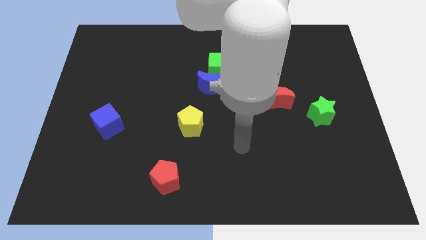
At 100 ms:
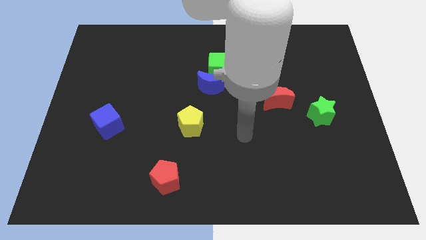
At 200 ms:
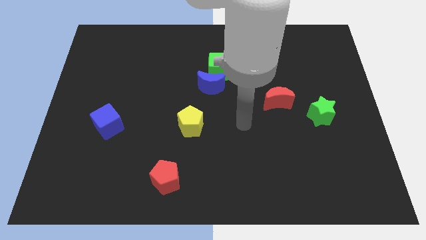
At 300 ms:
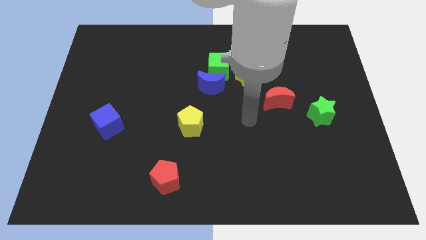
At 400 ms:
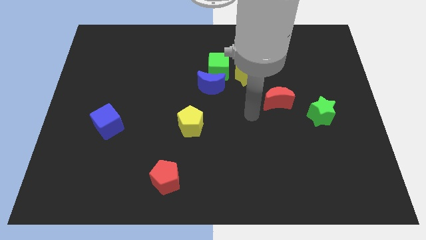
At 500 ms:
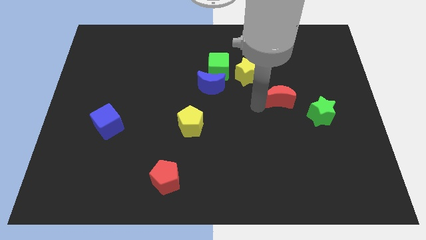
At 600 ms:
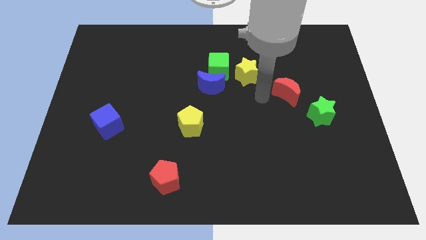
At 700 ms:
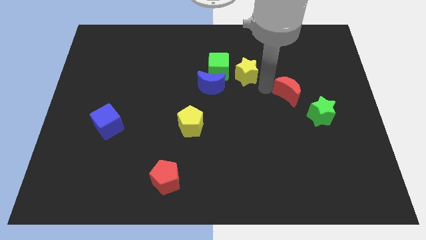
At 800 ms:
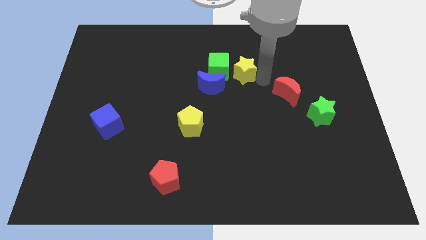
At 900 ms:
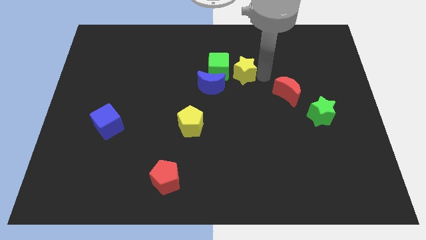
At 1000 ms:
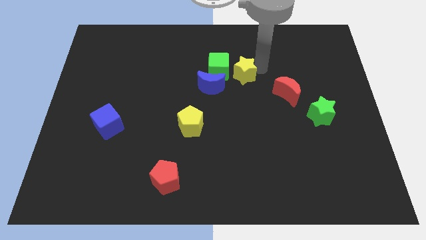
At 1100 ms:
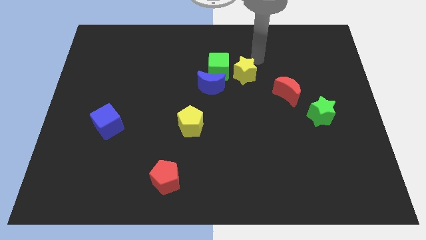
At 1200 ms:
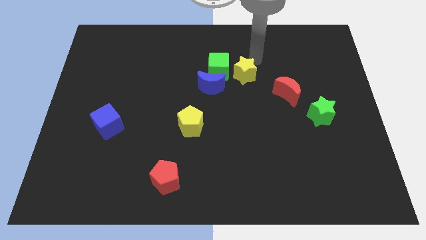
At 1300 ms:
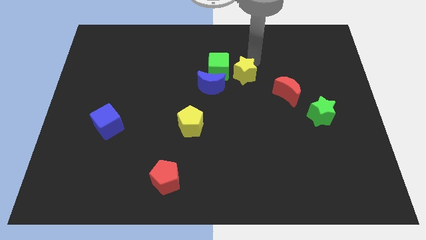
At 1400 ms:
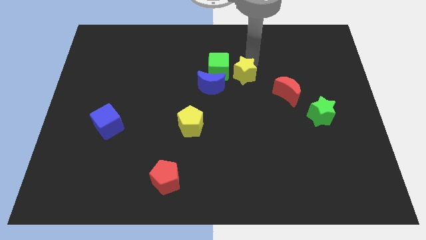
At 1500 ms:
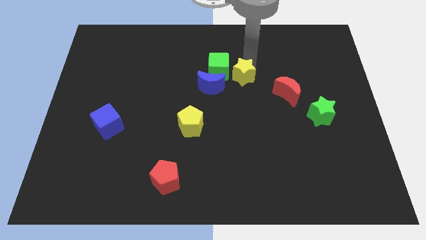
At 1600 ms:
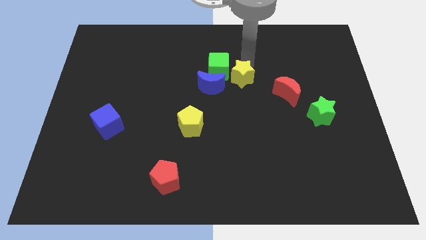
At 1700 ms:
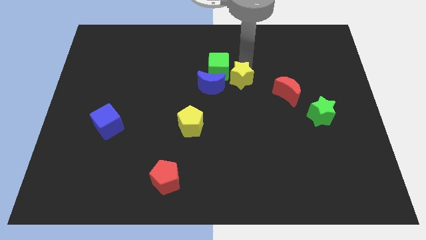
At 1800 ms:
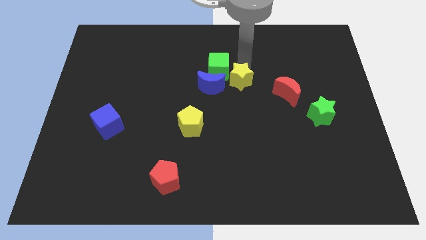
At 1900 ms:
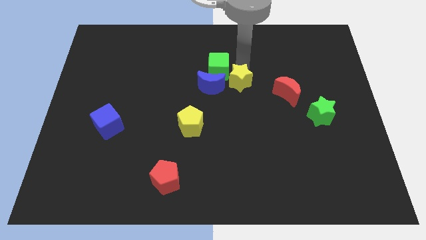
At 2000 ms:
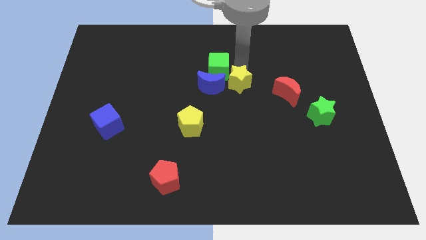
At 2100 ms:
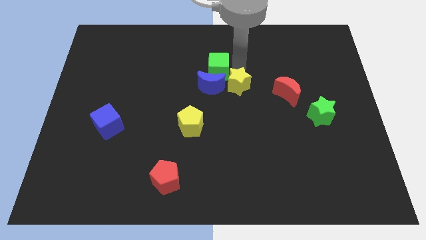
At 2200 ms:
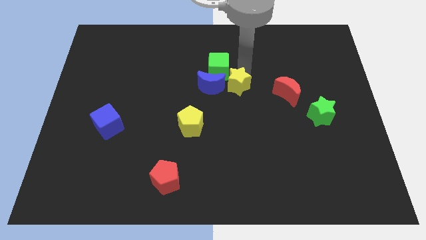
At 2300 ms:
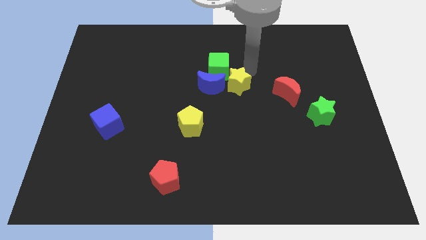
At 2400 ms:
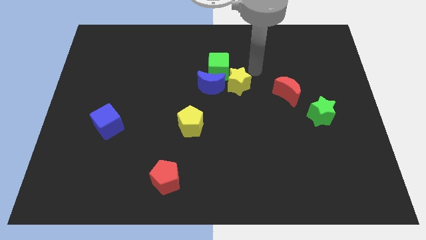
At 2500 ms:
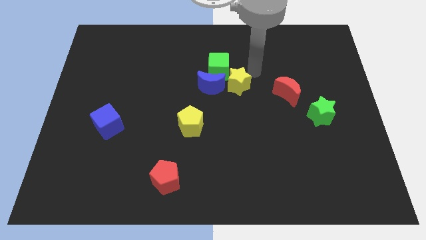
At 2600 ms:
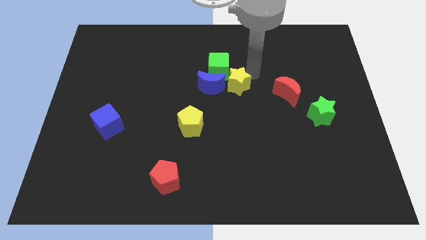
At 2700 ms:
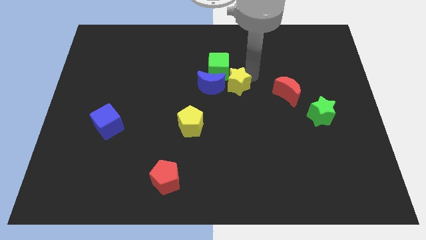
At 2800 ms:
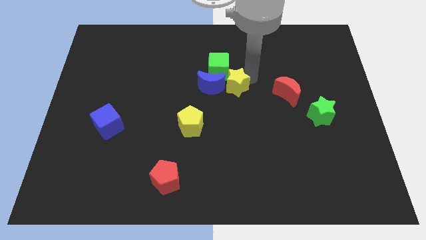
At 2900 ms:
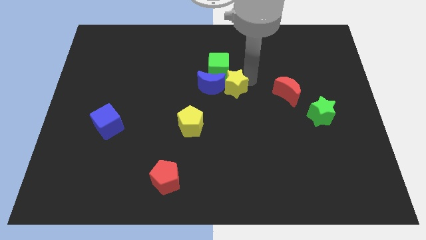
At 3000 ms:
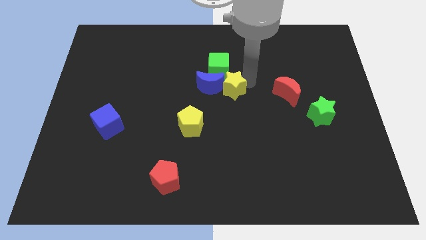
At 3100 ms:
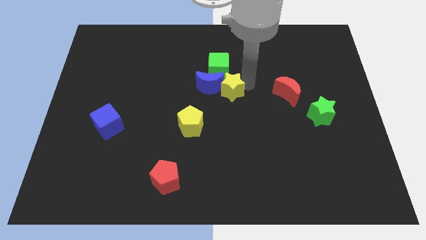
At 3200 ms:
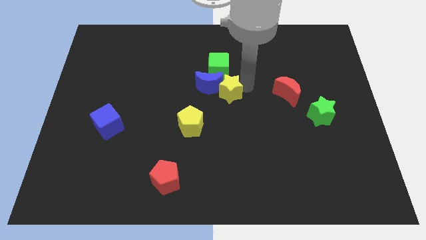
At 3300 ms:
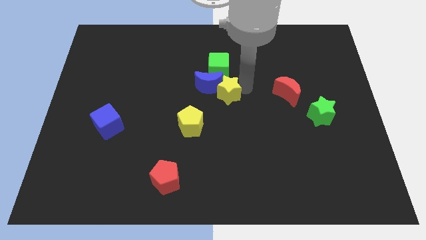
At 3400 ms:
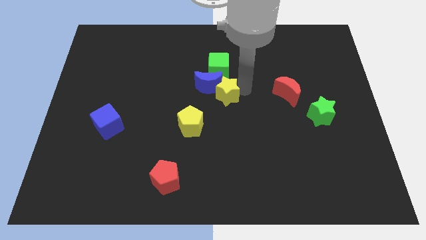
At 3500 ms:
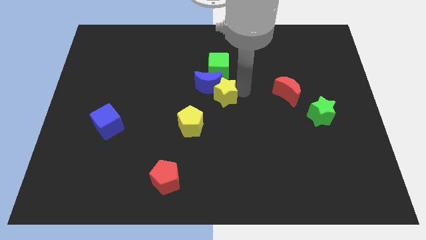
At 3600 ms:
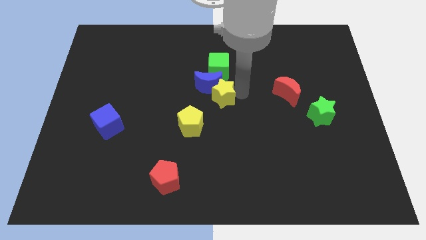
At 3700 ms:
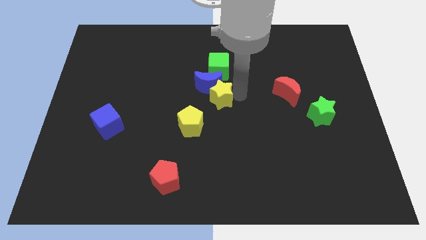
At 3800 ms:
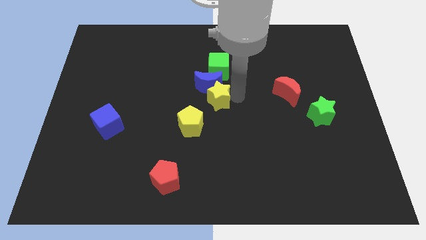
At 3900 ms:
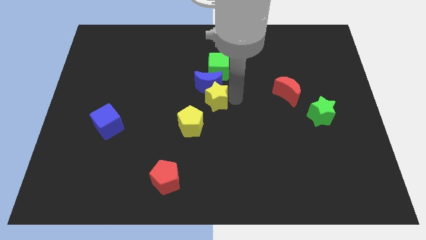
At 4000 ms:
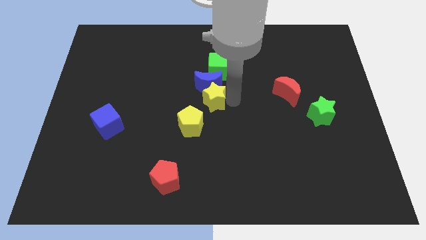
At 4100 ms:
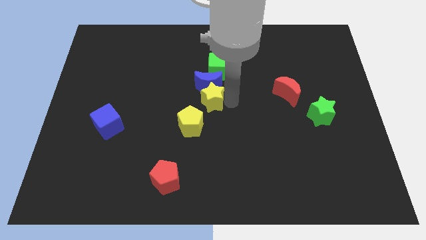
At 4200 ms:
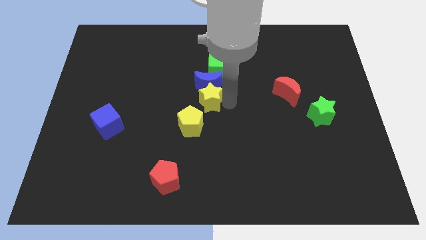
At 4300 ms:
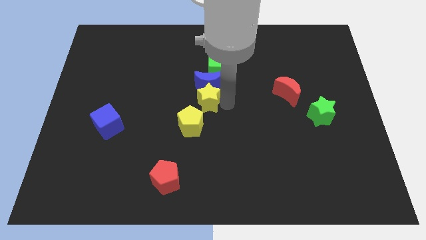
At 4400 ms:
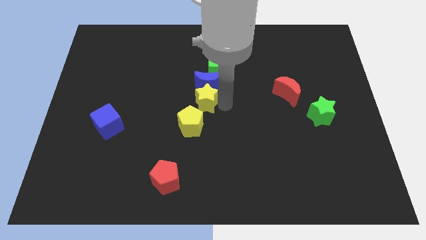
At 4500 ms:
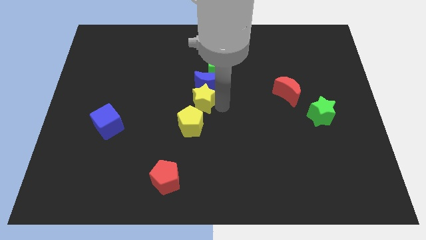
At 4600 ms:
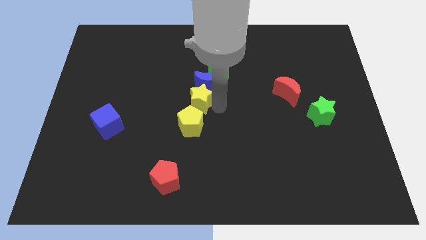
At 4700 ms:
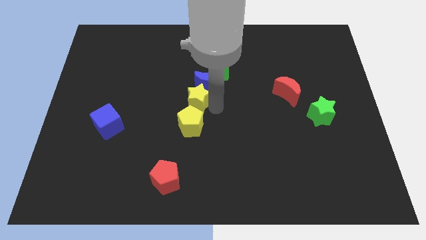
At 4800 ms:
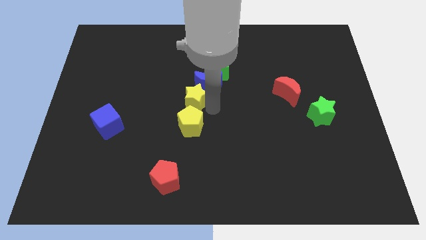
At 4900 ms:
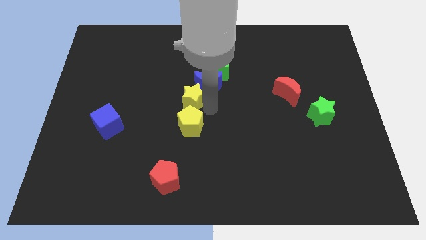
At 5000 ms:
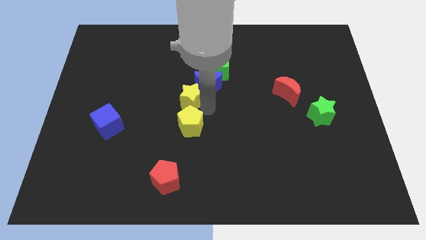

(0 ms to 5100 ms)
put the yellow star just left of the blue moon

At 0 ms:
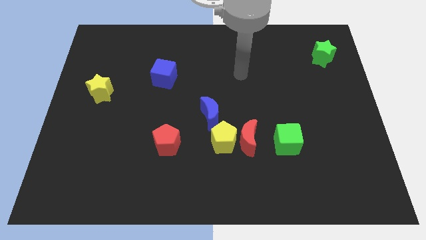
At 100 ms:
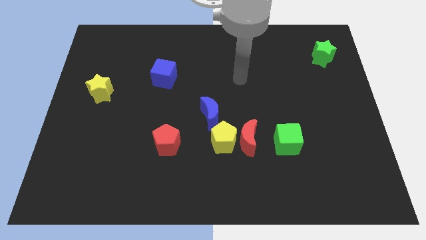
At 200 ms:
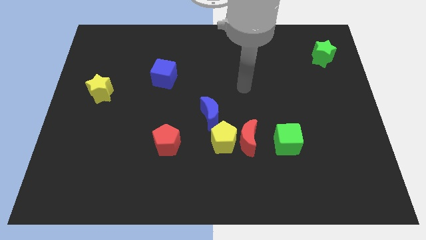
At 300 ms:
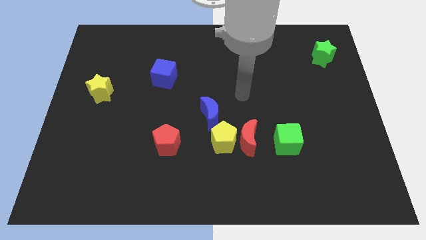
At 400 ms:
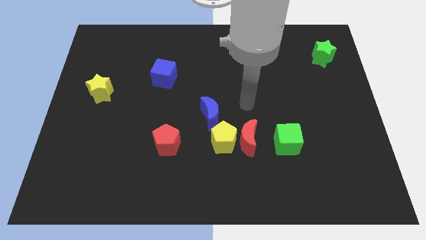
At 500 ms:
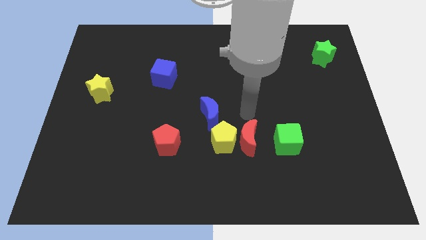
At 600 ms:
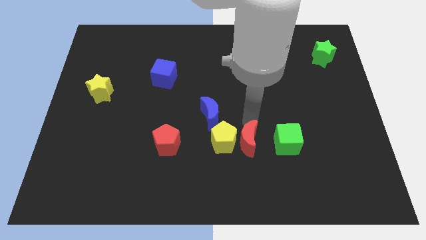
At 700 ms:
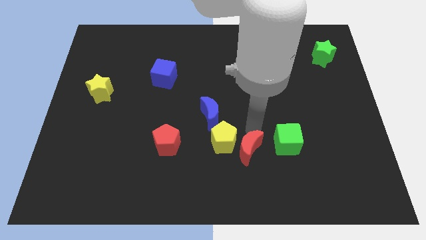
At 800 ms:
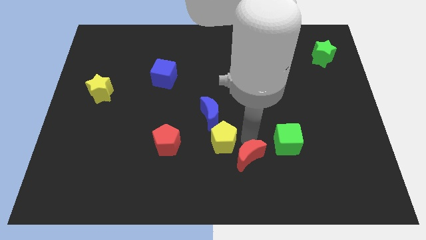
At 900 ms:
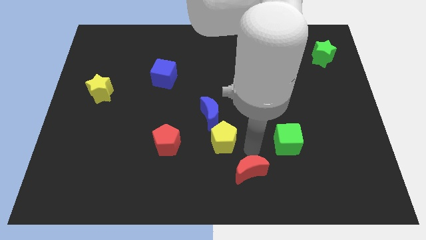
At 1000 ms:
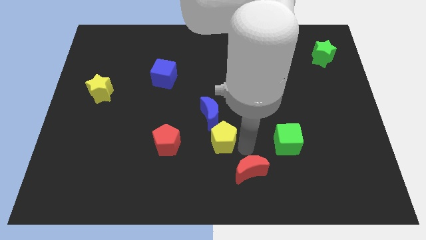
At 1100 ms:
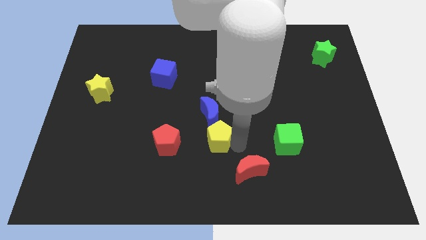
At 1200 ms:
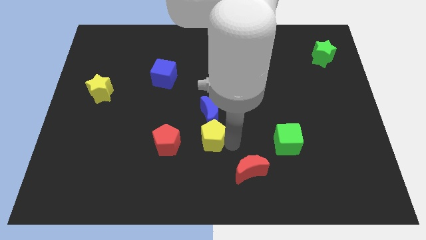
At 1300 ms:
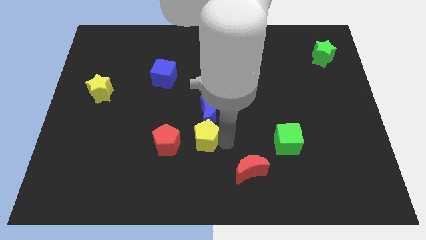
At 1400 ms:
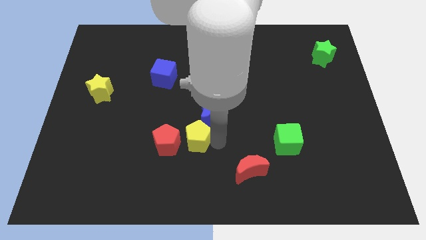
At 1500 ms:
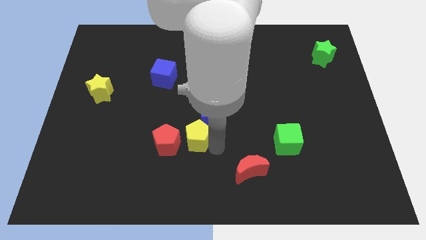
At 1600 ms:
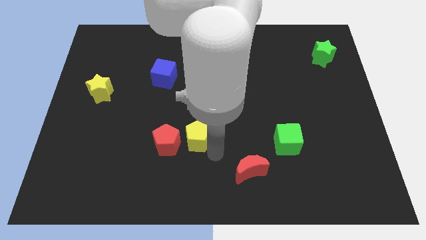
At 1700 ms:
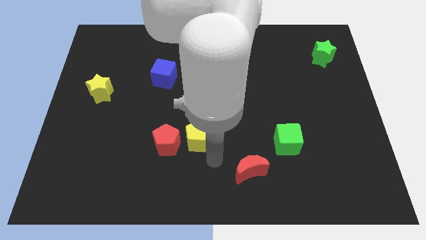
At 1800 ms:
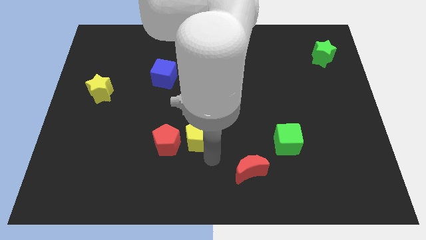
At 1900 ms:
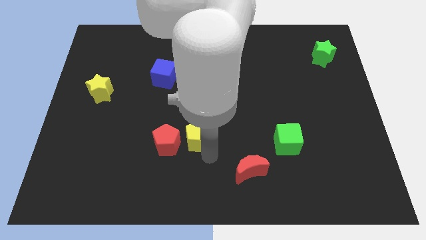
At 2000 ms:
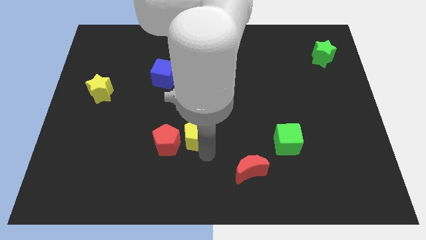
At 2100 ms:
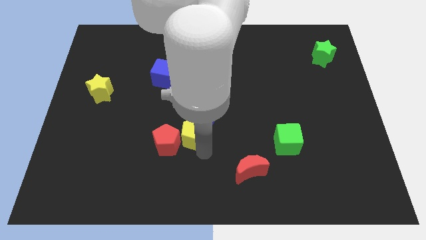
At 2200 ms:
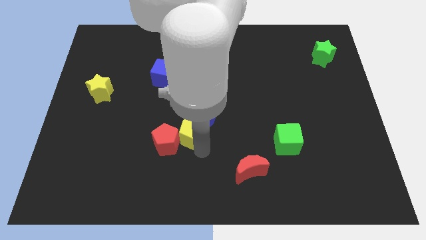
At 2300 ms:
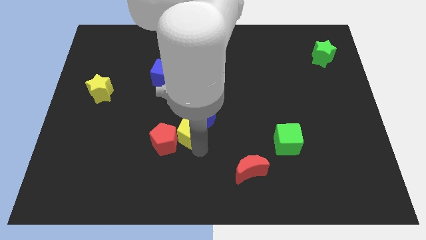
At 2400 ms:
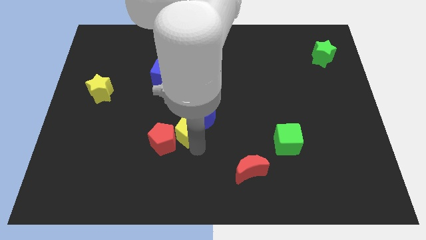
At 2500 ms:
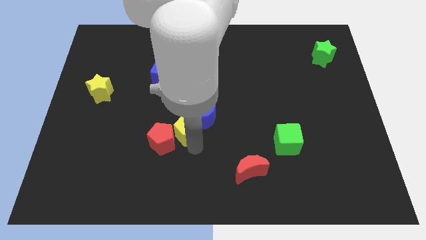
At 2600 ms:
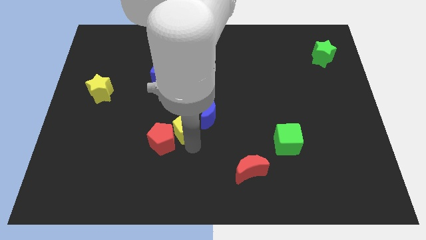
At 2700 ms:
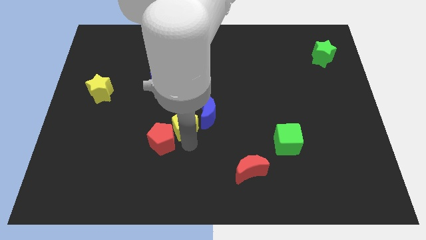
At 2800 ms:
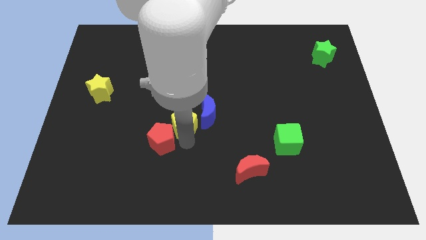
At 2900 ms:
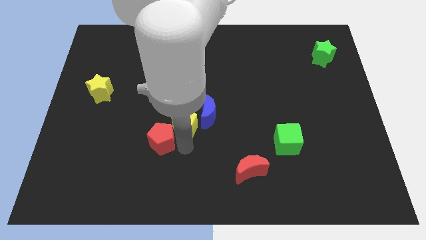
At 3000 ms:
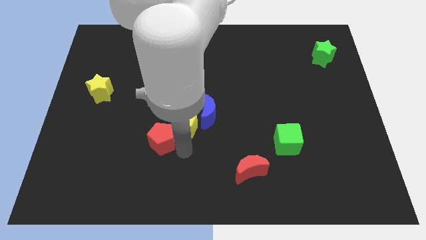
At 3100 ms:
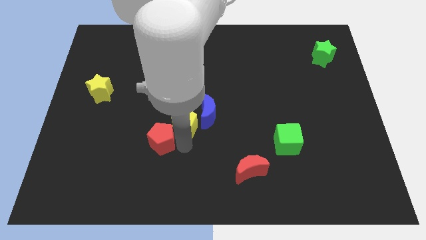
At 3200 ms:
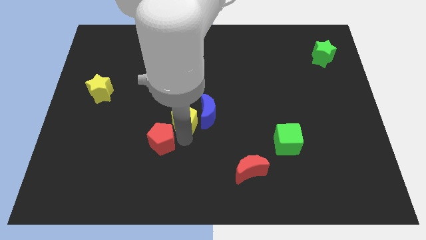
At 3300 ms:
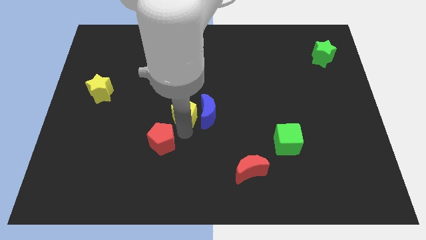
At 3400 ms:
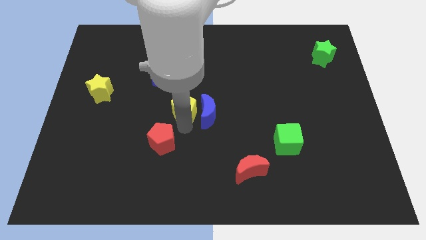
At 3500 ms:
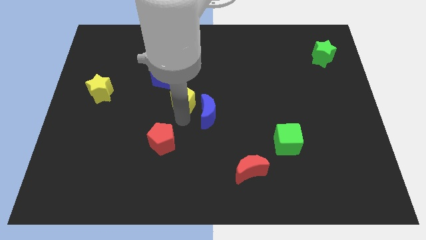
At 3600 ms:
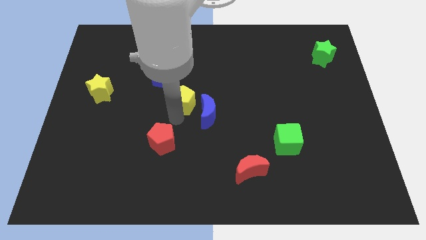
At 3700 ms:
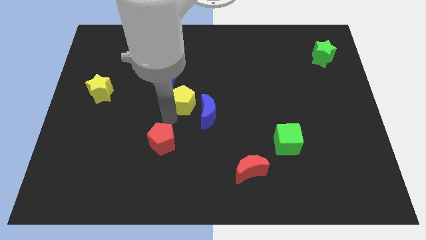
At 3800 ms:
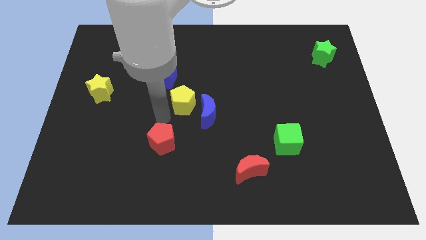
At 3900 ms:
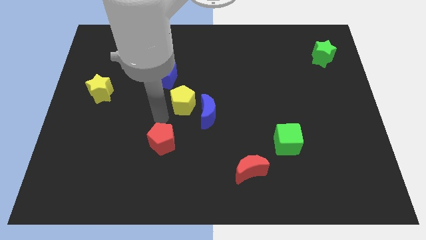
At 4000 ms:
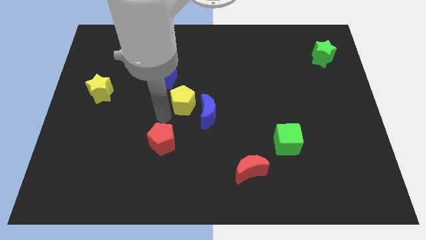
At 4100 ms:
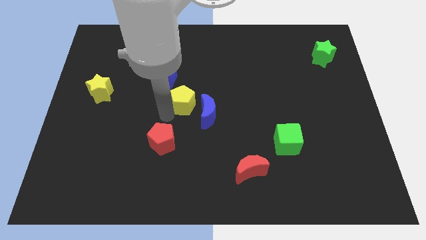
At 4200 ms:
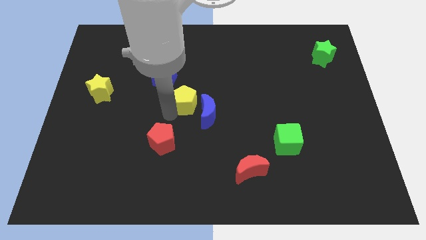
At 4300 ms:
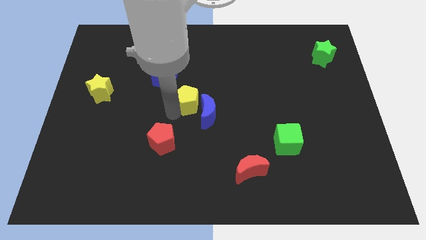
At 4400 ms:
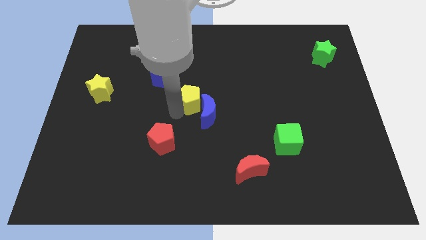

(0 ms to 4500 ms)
push the yellow pentagon to the top side of the blue moon
